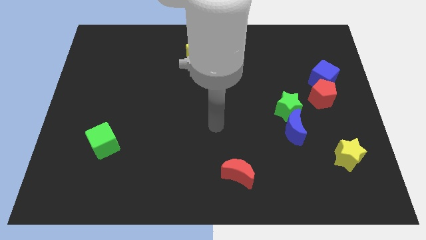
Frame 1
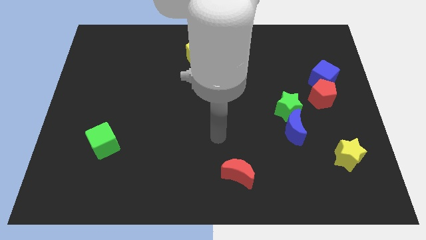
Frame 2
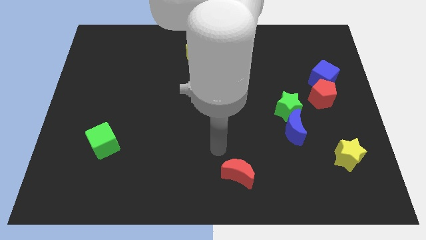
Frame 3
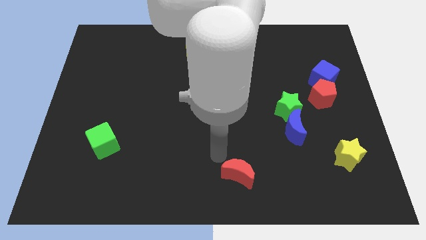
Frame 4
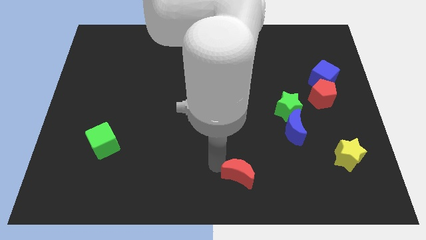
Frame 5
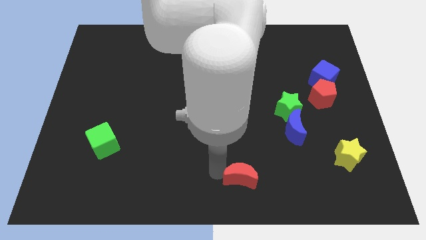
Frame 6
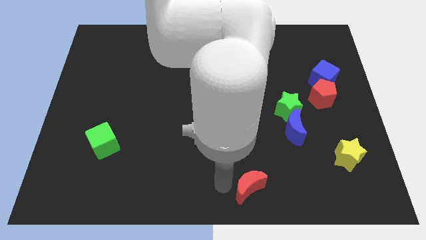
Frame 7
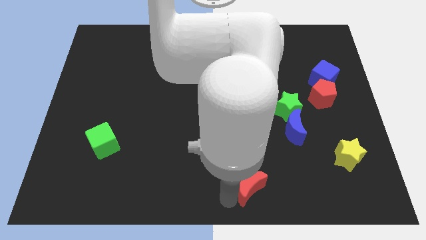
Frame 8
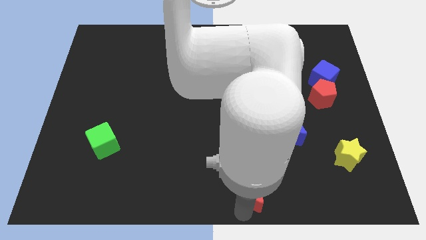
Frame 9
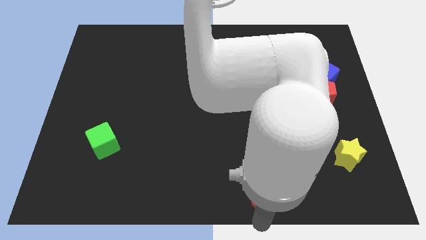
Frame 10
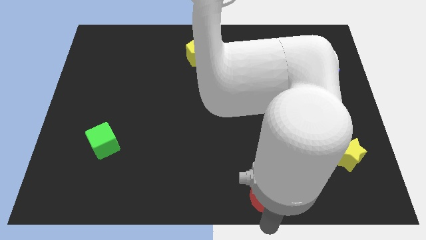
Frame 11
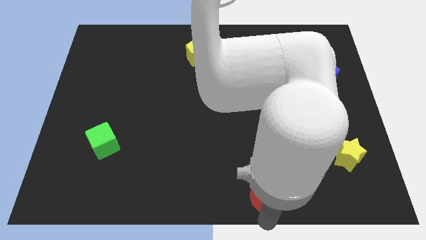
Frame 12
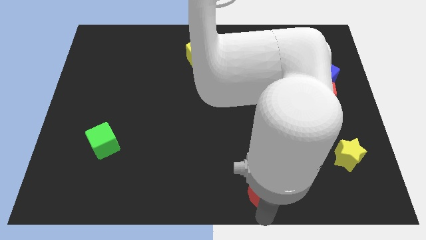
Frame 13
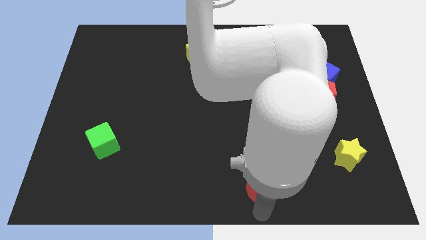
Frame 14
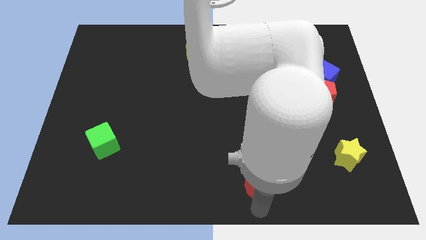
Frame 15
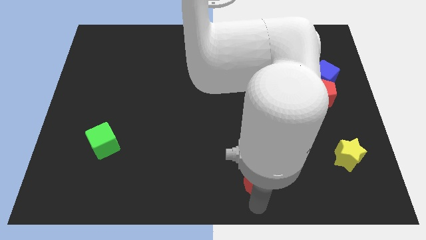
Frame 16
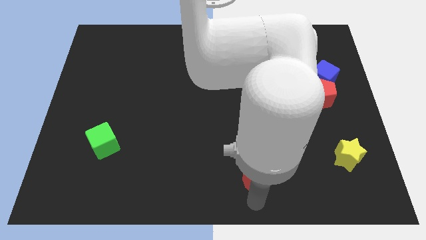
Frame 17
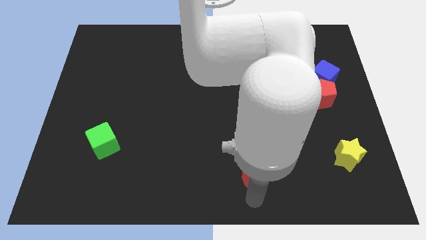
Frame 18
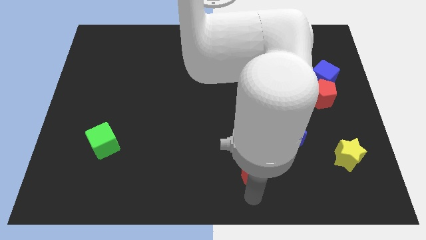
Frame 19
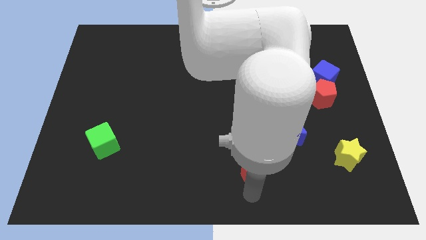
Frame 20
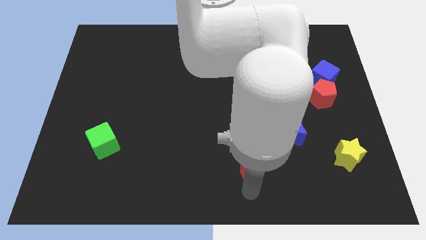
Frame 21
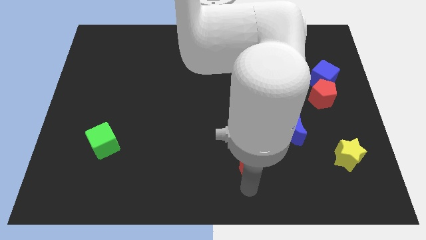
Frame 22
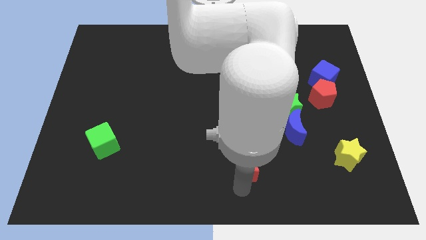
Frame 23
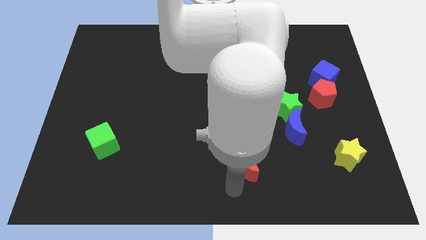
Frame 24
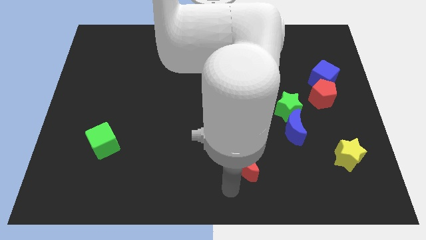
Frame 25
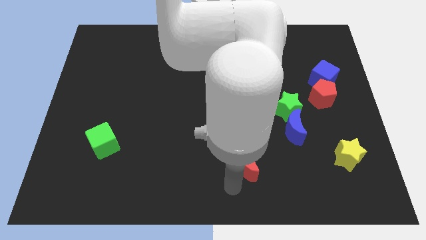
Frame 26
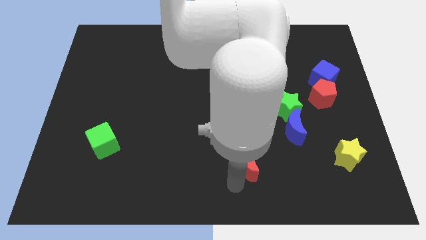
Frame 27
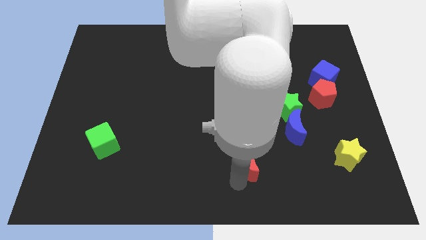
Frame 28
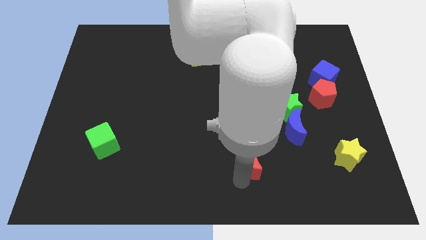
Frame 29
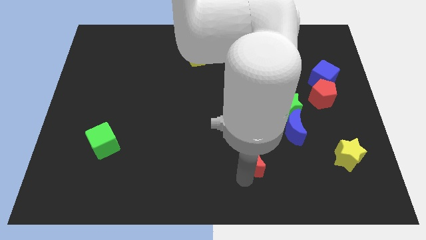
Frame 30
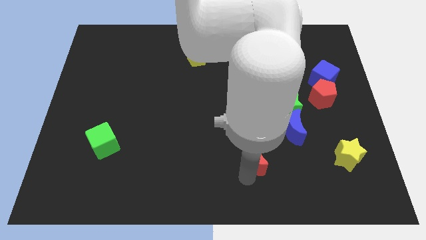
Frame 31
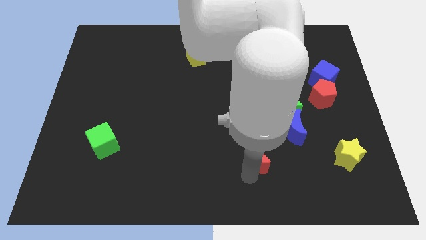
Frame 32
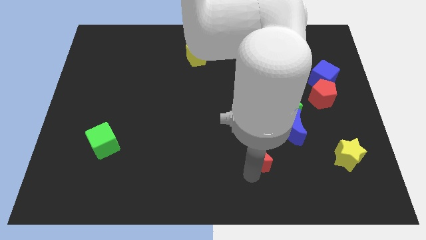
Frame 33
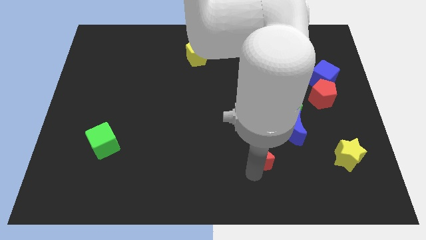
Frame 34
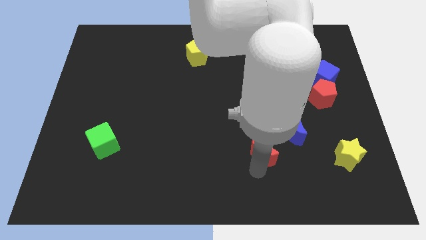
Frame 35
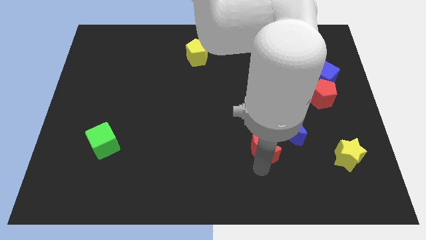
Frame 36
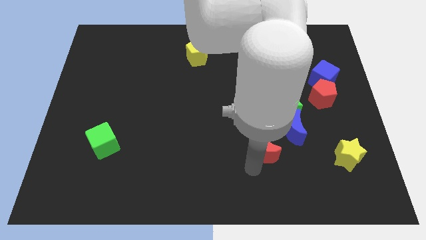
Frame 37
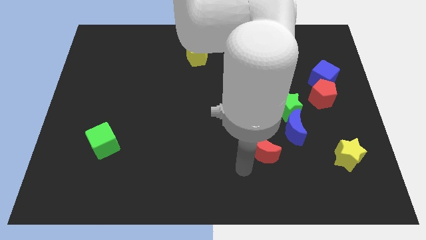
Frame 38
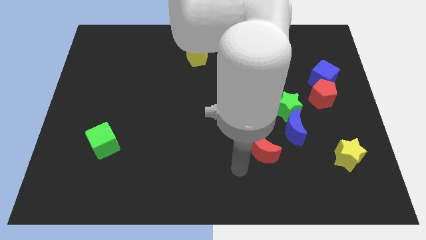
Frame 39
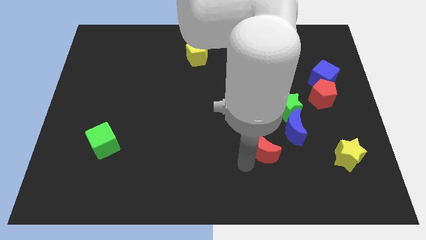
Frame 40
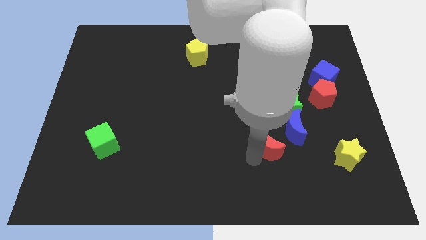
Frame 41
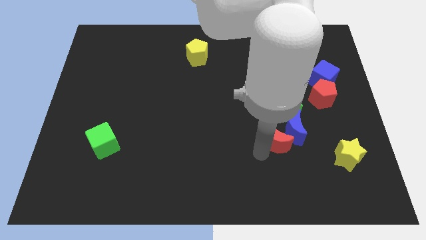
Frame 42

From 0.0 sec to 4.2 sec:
move the red moon close to the blue moon

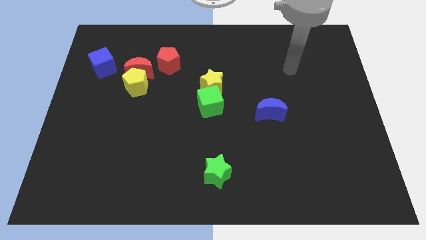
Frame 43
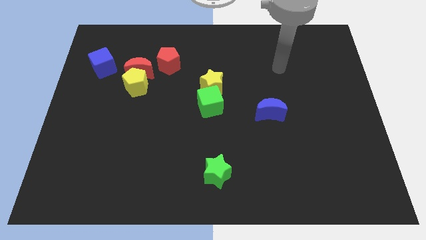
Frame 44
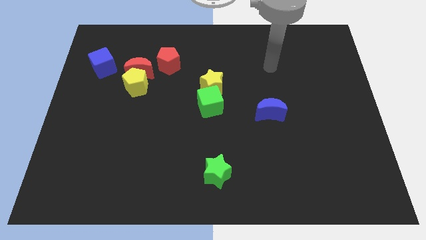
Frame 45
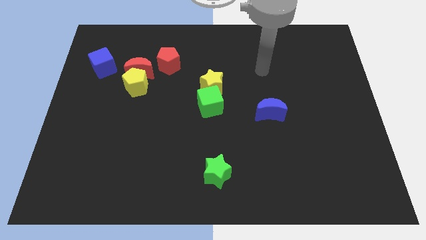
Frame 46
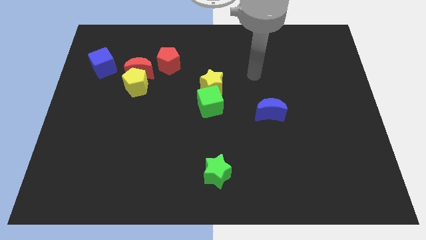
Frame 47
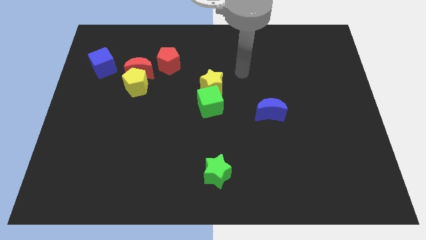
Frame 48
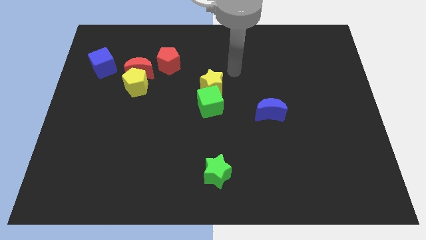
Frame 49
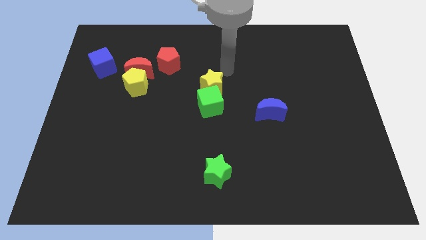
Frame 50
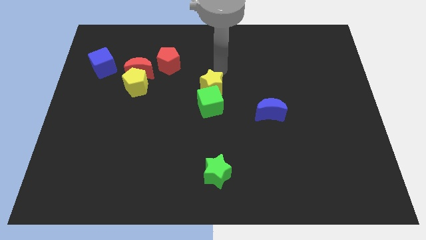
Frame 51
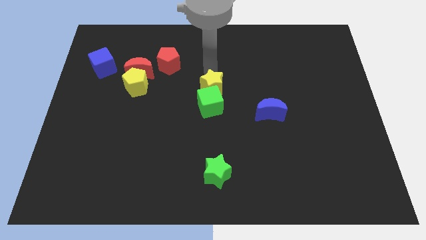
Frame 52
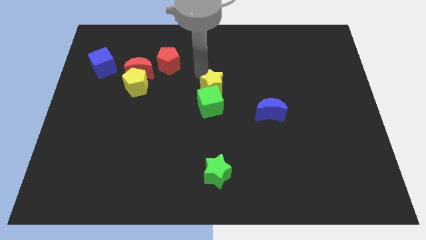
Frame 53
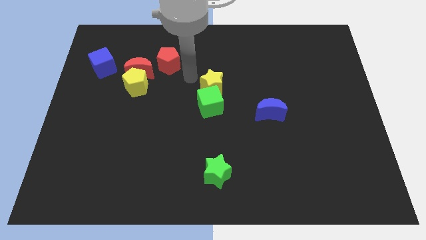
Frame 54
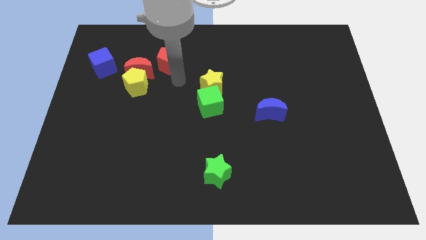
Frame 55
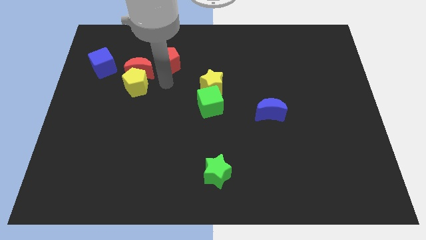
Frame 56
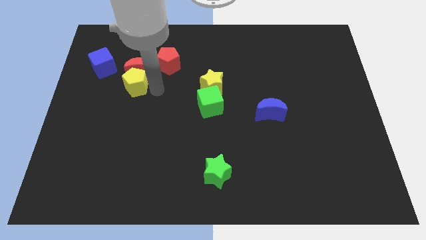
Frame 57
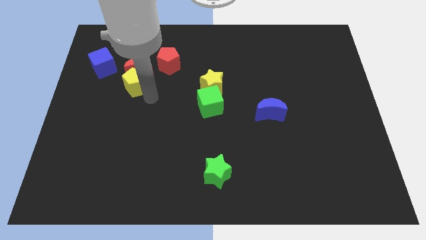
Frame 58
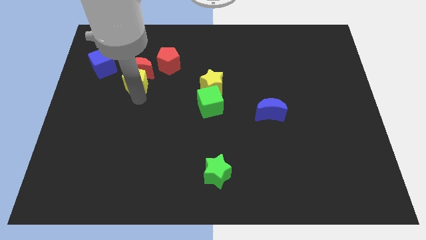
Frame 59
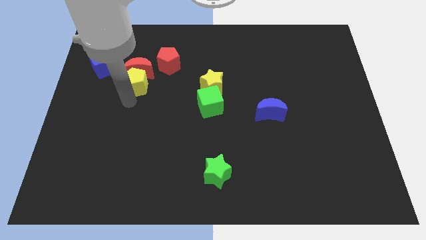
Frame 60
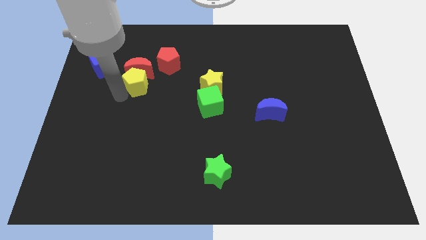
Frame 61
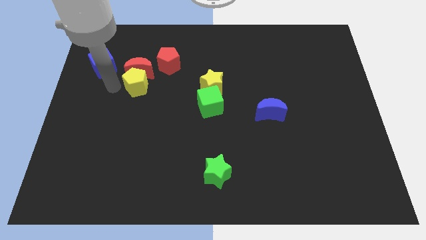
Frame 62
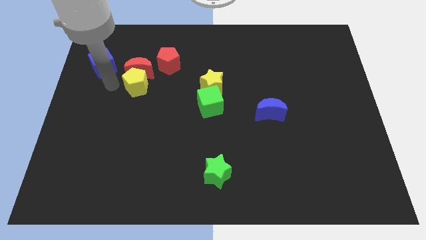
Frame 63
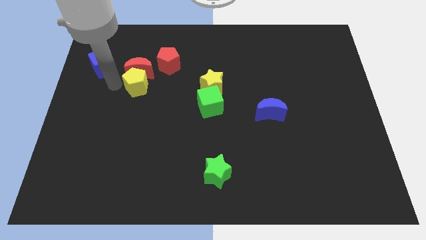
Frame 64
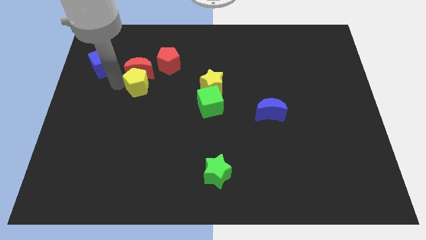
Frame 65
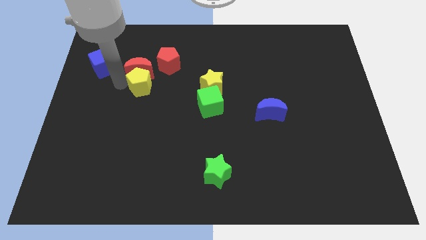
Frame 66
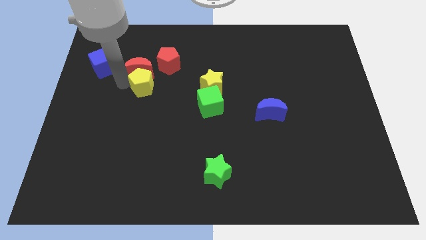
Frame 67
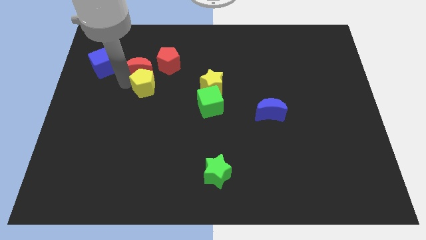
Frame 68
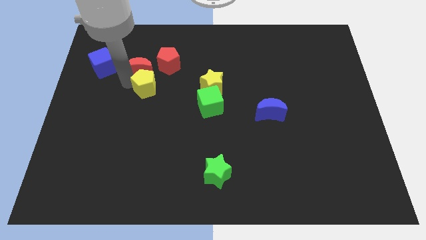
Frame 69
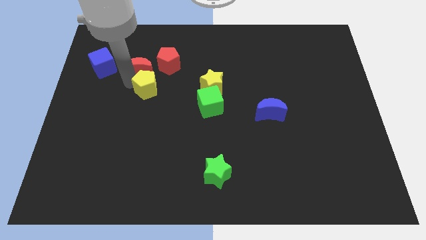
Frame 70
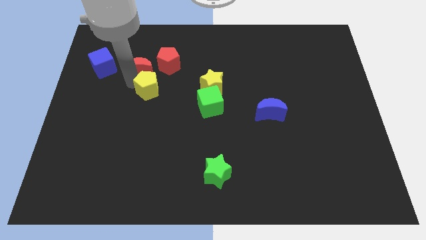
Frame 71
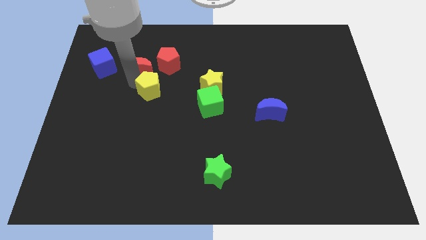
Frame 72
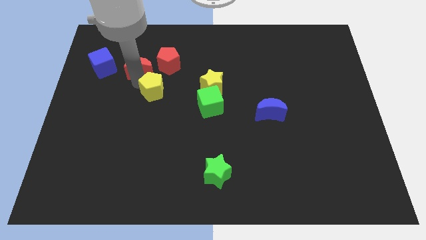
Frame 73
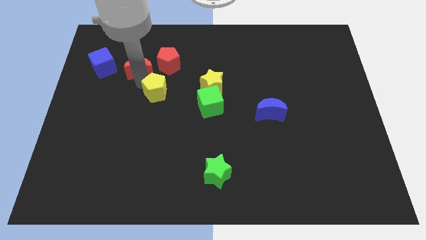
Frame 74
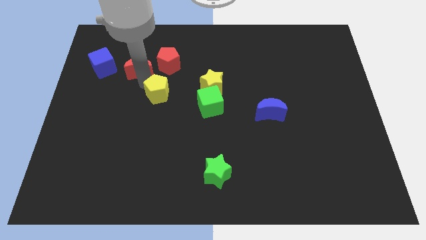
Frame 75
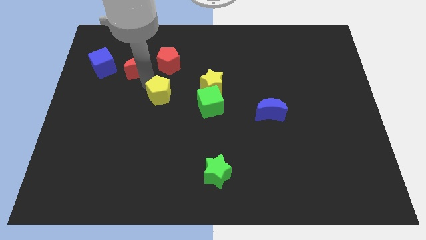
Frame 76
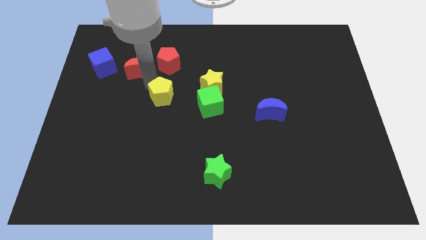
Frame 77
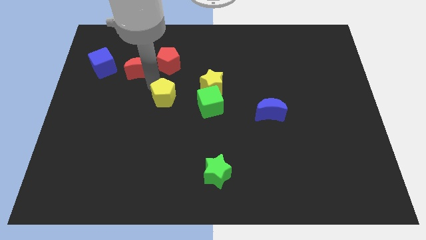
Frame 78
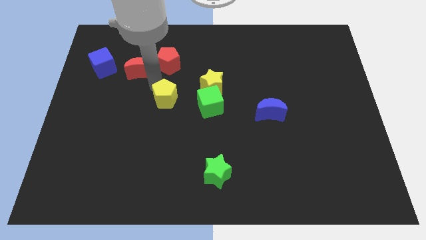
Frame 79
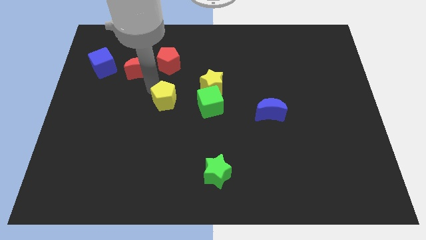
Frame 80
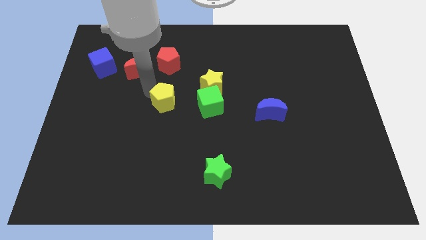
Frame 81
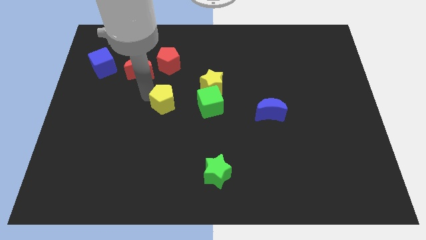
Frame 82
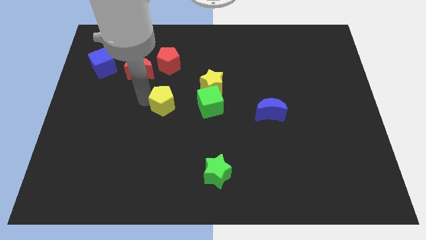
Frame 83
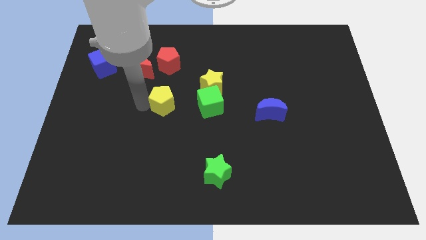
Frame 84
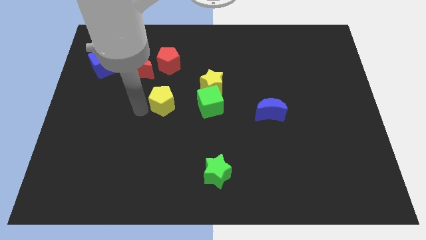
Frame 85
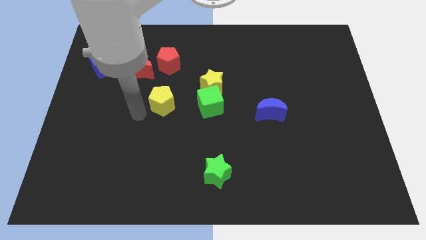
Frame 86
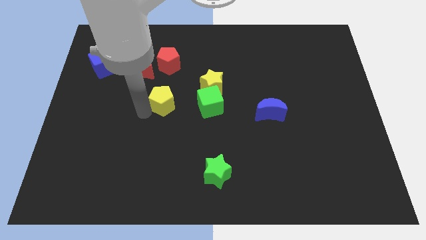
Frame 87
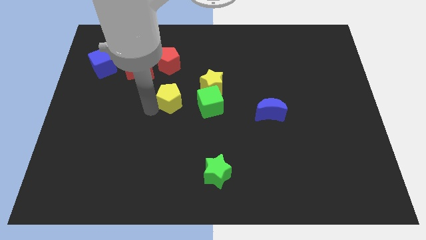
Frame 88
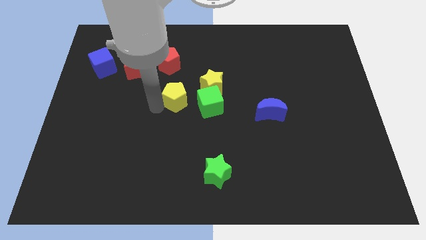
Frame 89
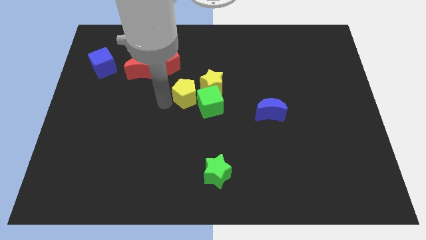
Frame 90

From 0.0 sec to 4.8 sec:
push the yellow pentagon close to the green cube
